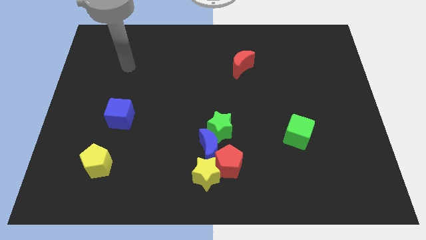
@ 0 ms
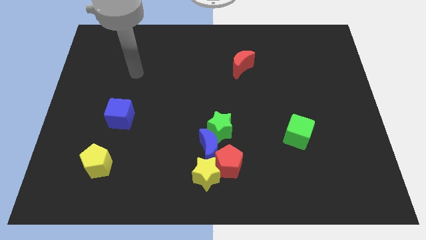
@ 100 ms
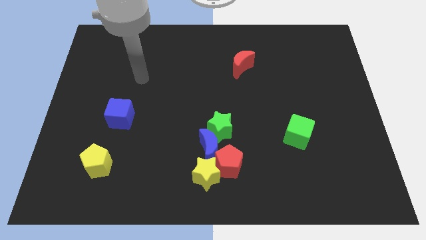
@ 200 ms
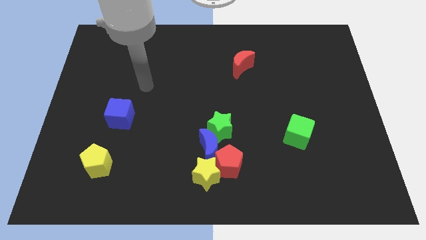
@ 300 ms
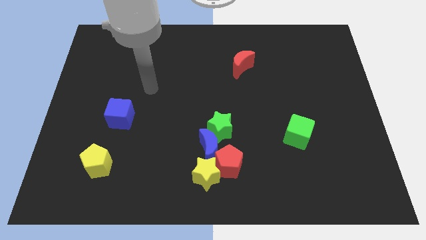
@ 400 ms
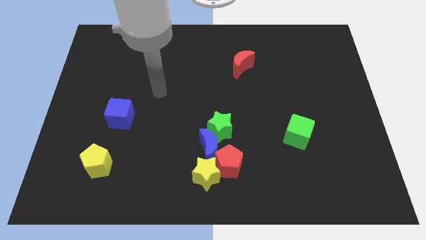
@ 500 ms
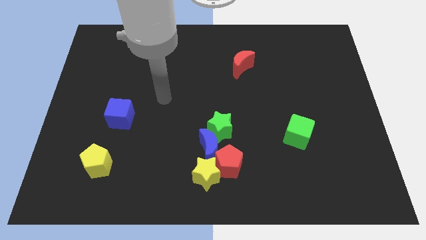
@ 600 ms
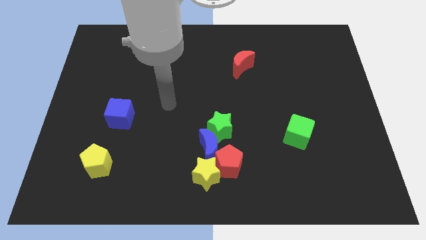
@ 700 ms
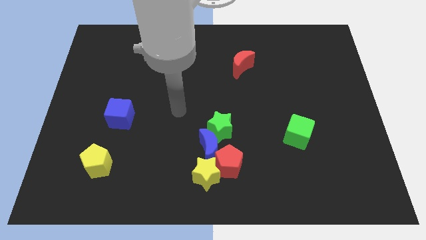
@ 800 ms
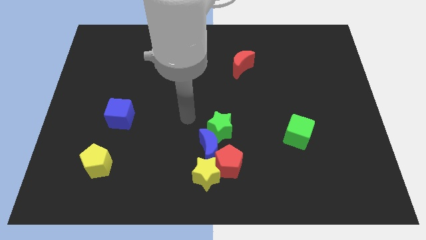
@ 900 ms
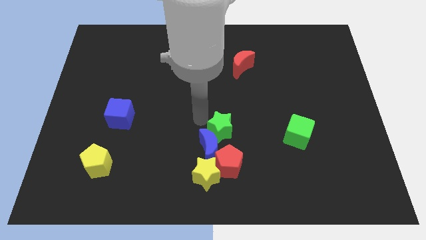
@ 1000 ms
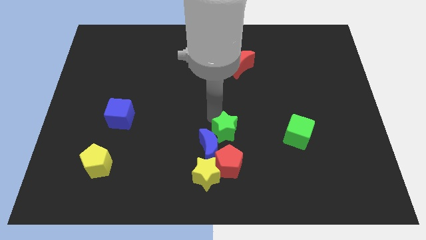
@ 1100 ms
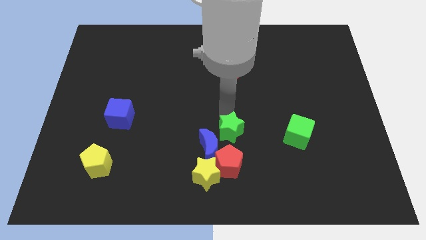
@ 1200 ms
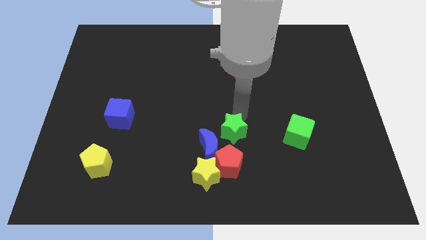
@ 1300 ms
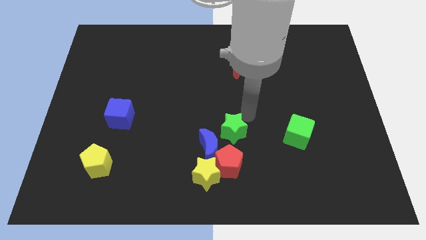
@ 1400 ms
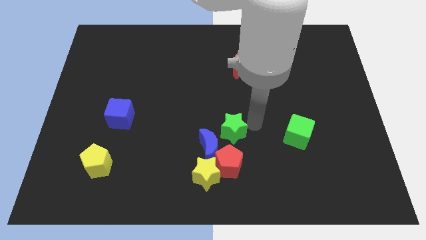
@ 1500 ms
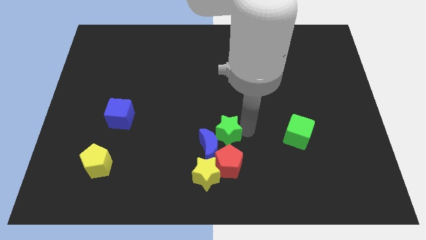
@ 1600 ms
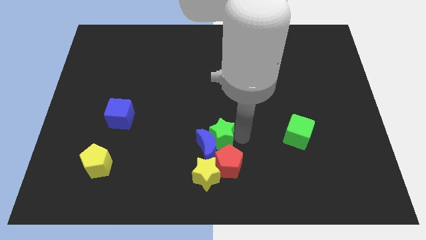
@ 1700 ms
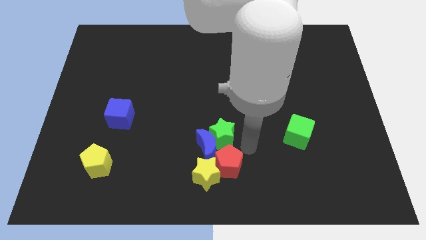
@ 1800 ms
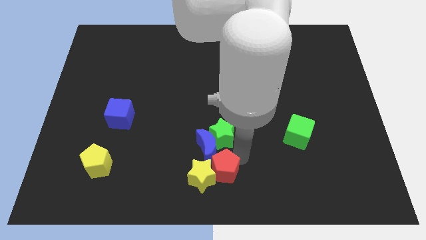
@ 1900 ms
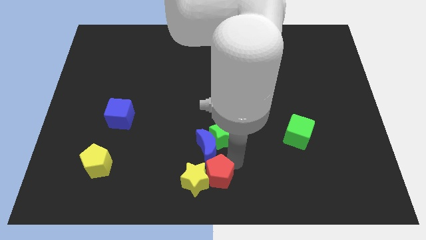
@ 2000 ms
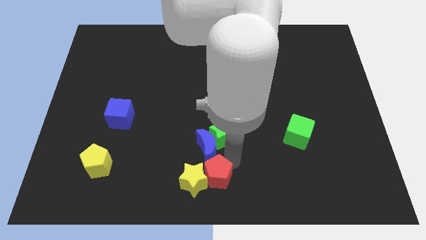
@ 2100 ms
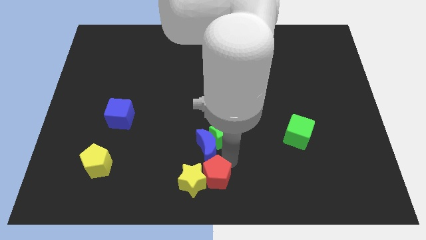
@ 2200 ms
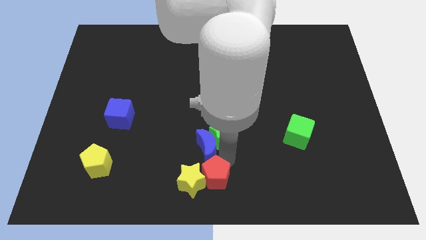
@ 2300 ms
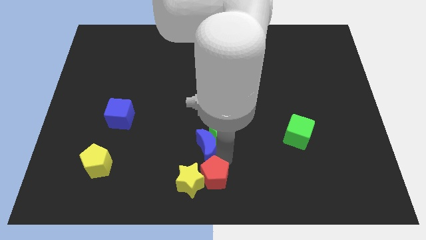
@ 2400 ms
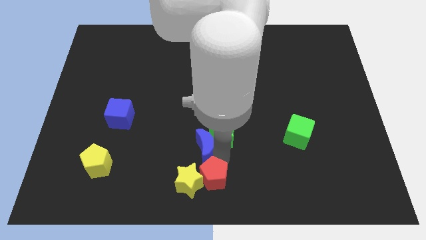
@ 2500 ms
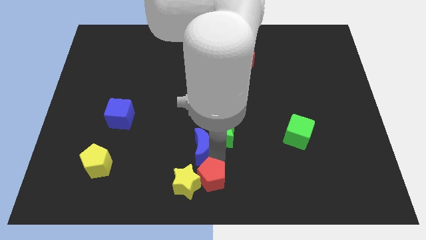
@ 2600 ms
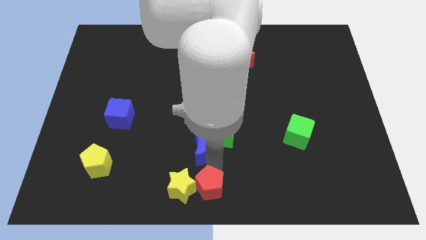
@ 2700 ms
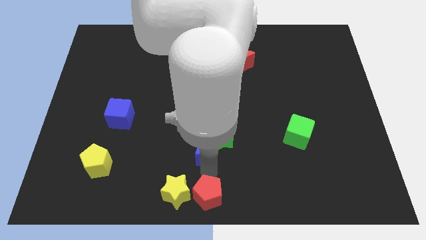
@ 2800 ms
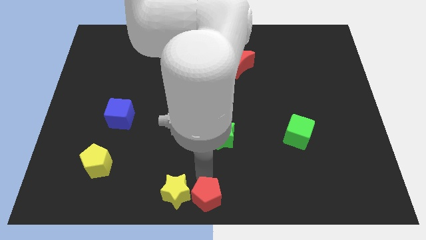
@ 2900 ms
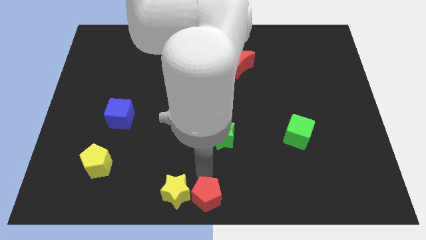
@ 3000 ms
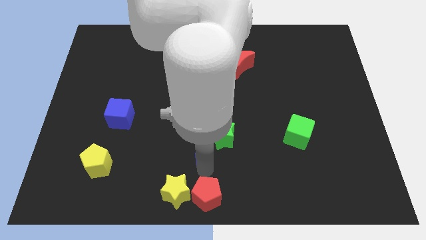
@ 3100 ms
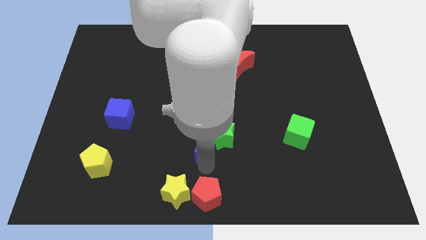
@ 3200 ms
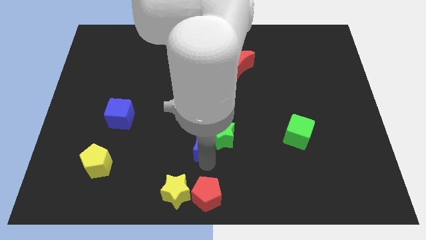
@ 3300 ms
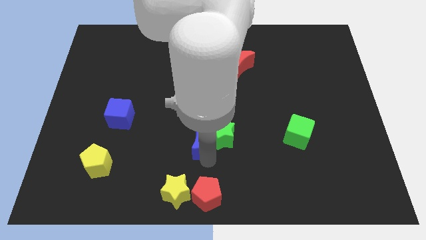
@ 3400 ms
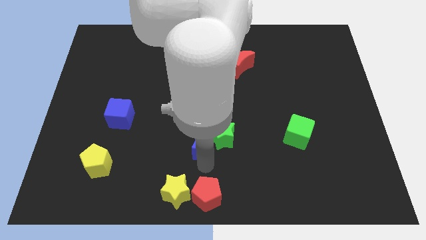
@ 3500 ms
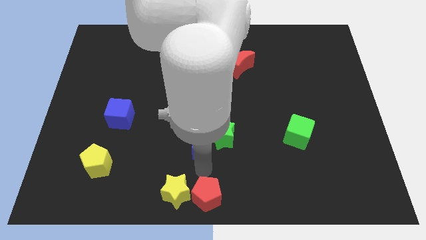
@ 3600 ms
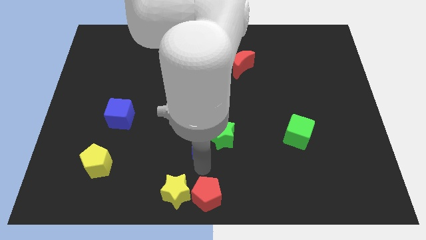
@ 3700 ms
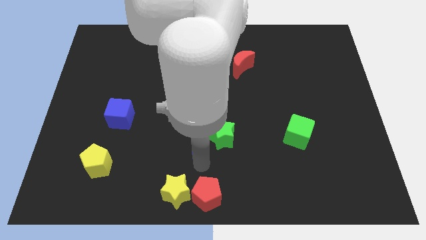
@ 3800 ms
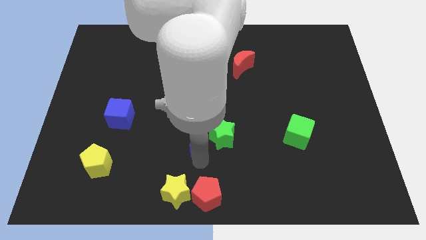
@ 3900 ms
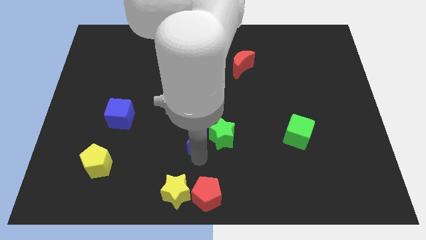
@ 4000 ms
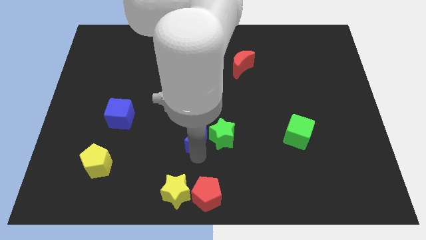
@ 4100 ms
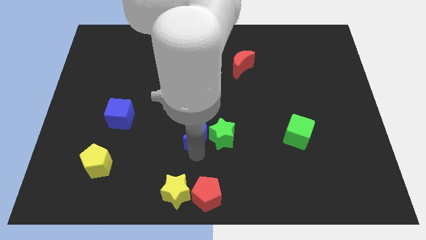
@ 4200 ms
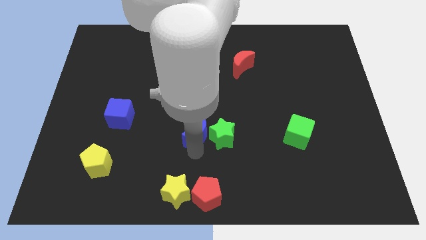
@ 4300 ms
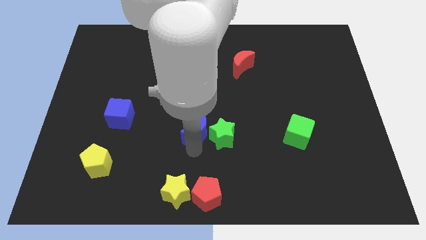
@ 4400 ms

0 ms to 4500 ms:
separate the blue moon from the group

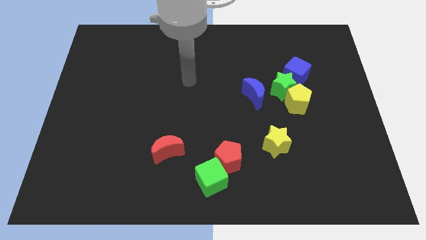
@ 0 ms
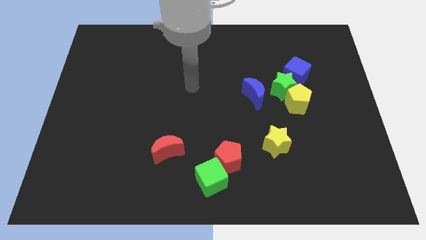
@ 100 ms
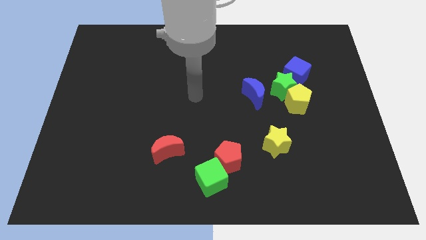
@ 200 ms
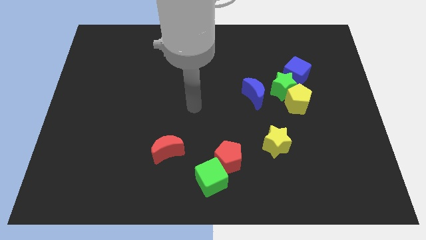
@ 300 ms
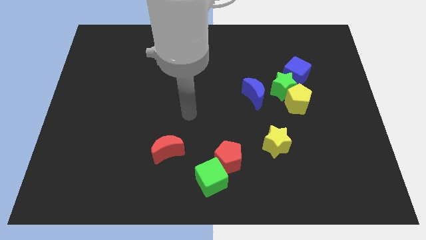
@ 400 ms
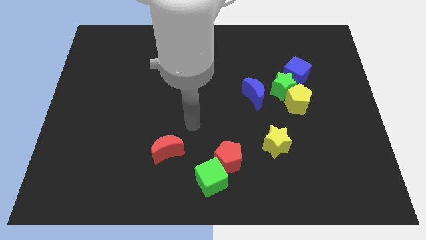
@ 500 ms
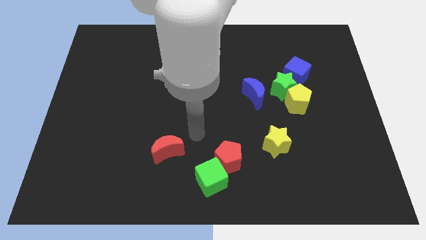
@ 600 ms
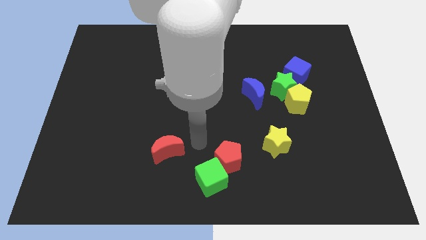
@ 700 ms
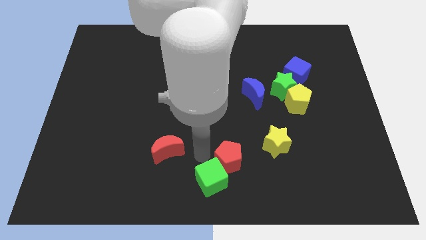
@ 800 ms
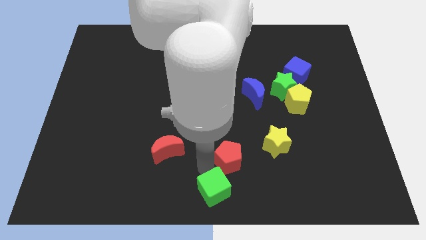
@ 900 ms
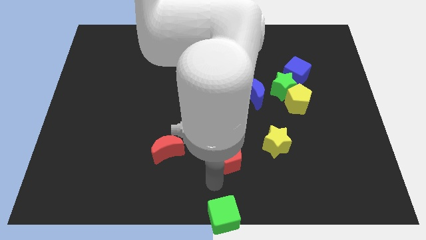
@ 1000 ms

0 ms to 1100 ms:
move the red pentagon away from the green cube

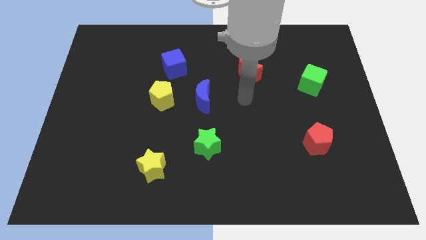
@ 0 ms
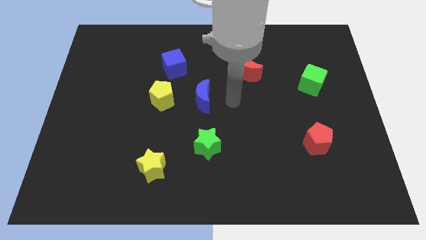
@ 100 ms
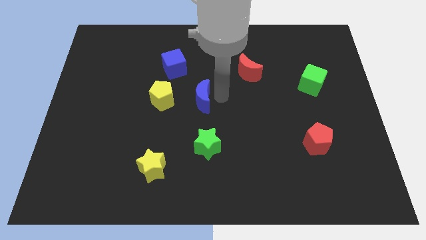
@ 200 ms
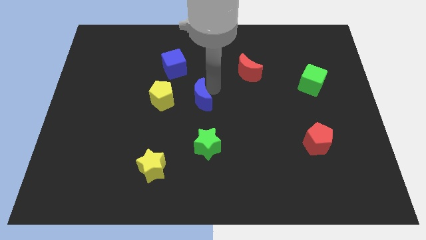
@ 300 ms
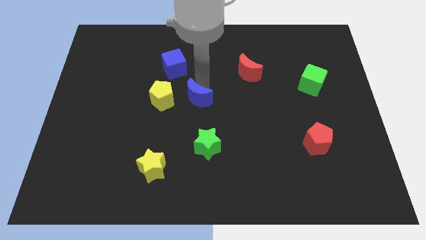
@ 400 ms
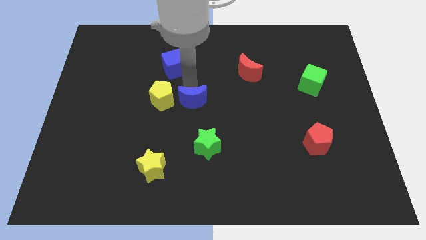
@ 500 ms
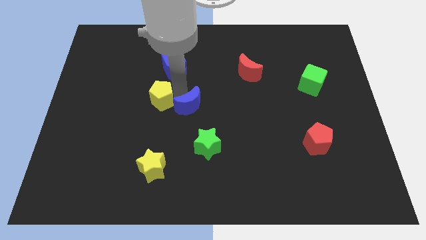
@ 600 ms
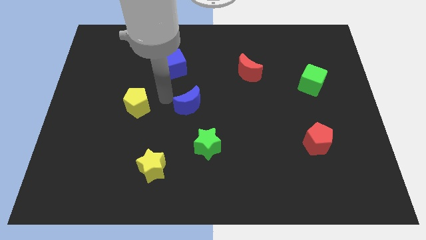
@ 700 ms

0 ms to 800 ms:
pull the blue moon apart from the yellow pentagon

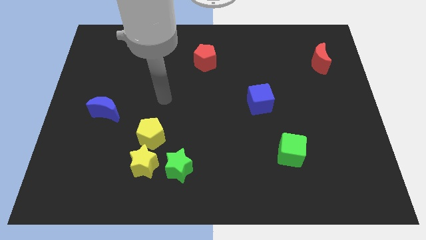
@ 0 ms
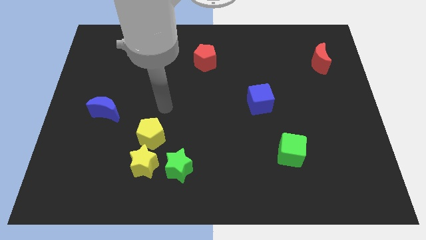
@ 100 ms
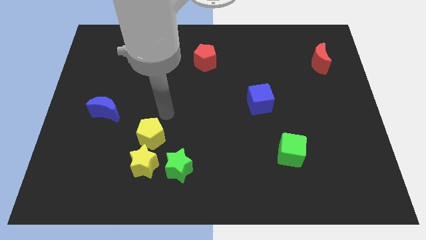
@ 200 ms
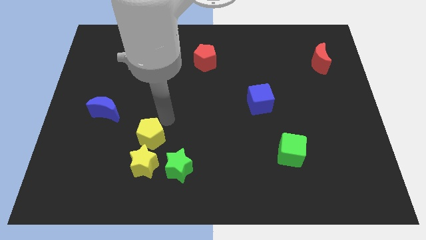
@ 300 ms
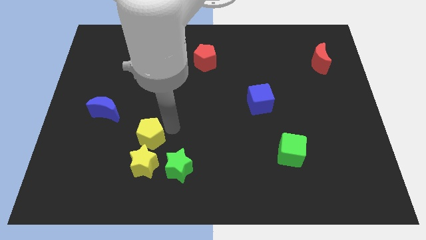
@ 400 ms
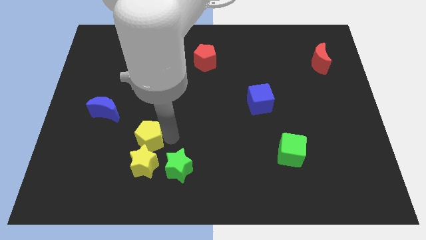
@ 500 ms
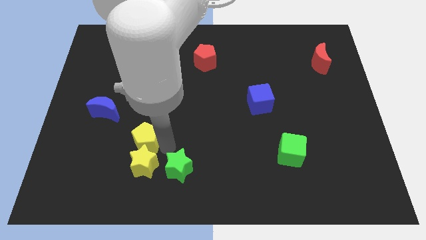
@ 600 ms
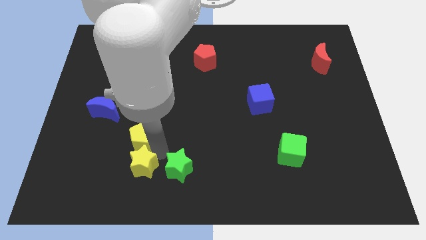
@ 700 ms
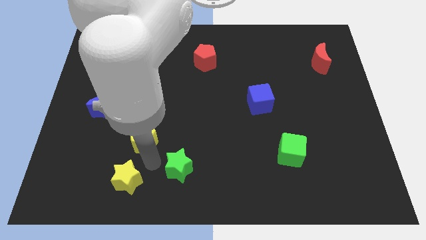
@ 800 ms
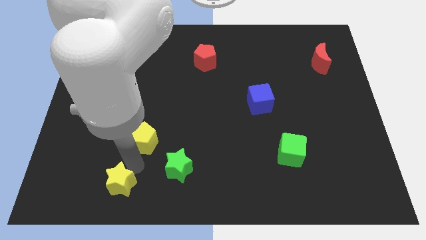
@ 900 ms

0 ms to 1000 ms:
move the yellow pentagon away from the yellow star

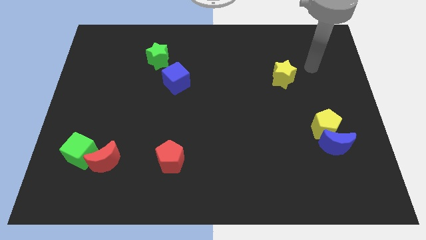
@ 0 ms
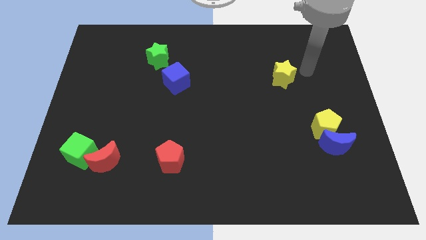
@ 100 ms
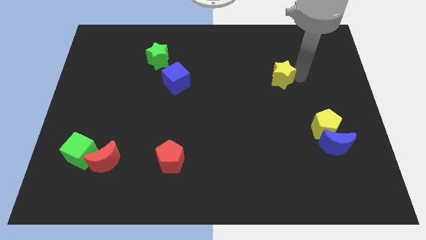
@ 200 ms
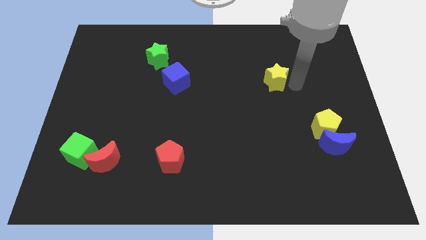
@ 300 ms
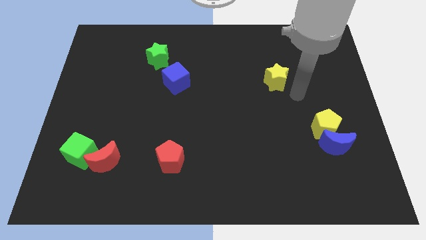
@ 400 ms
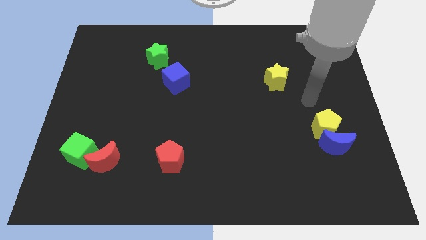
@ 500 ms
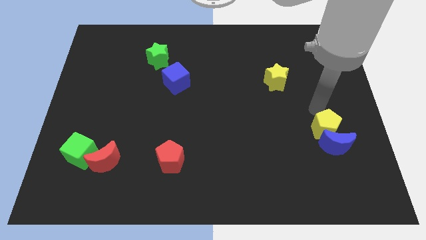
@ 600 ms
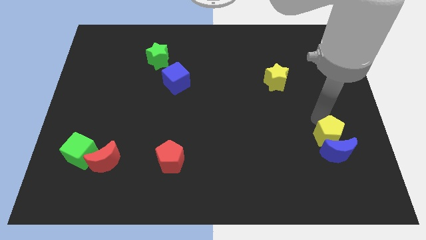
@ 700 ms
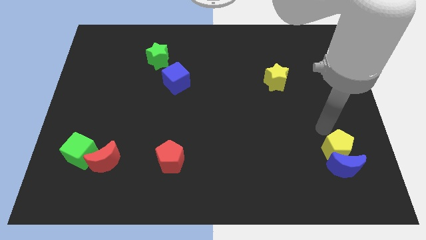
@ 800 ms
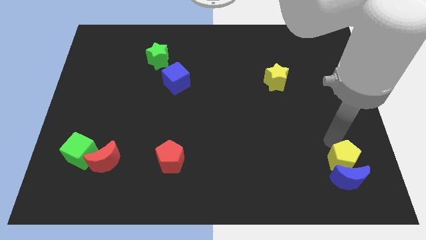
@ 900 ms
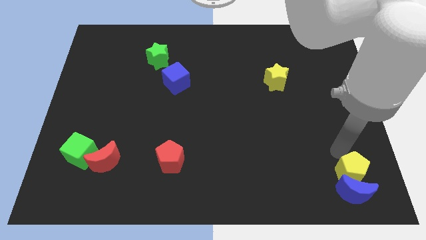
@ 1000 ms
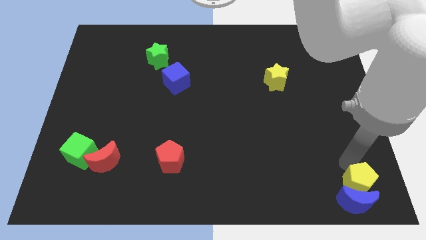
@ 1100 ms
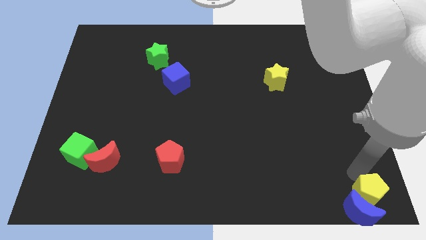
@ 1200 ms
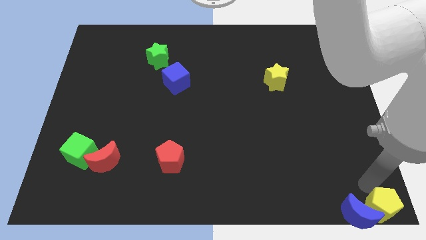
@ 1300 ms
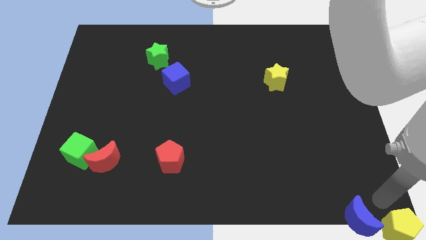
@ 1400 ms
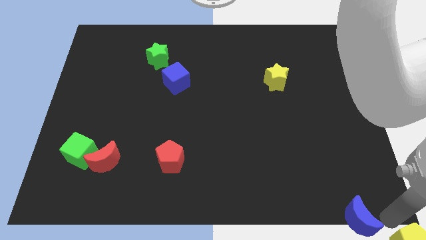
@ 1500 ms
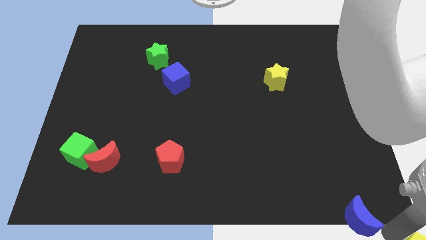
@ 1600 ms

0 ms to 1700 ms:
move the blue moon away from the yellow pentagon

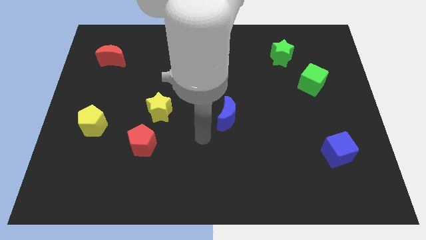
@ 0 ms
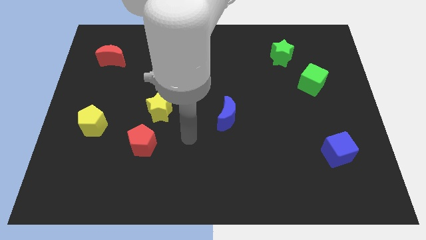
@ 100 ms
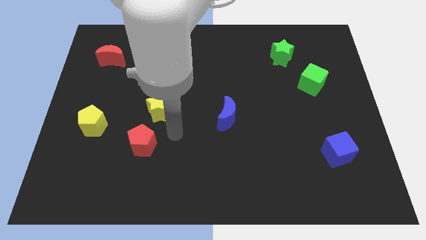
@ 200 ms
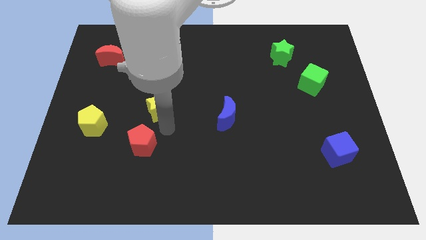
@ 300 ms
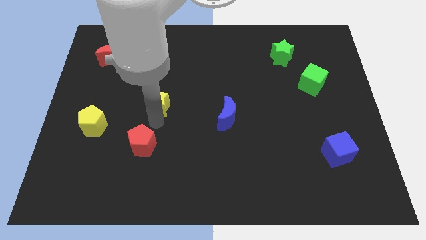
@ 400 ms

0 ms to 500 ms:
move the red pentagon away from the yellow star
